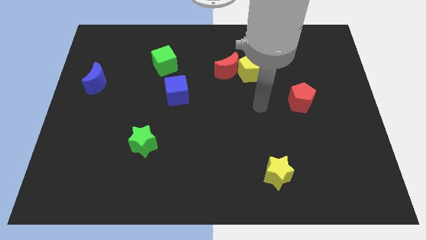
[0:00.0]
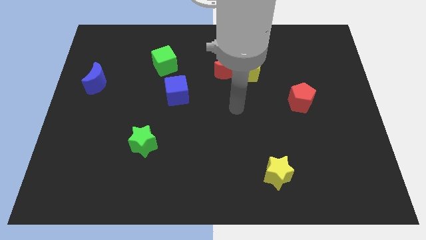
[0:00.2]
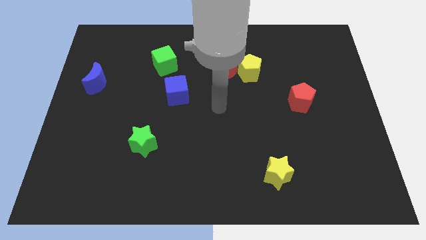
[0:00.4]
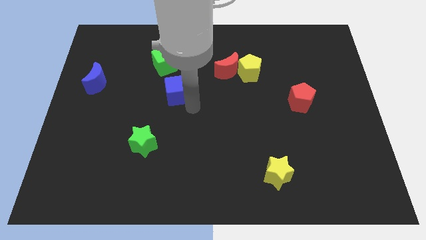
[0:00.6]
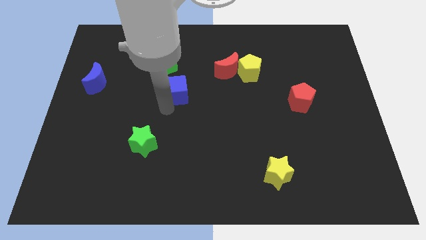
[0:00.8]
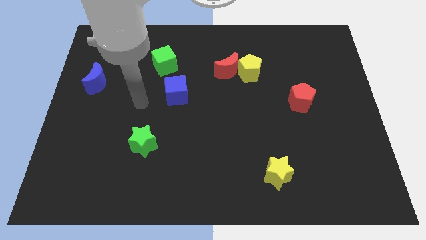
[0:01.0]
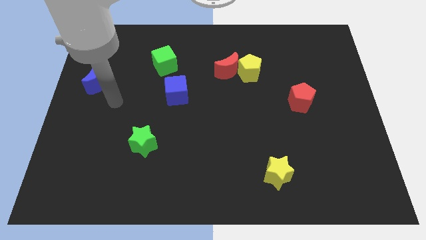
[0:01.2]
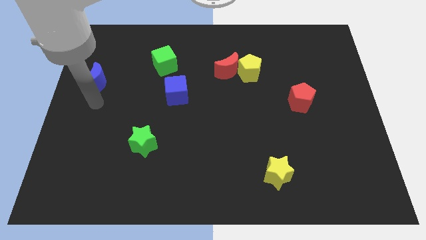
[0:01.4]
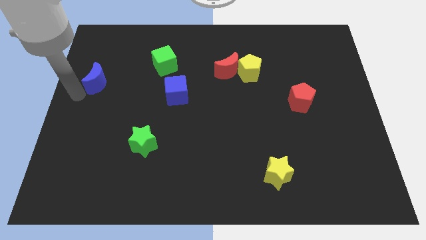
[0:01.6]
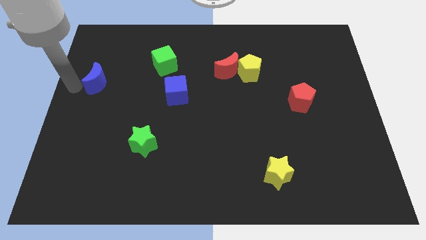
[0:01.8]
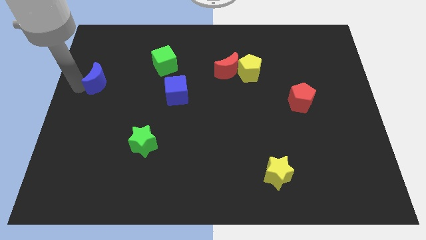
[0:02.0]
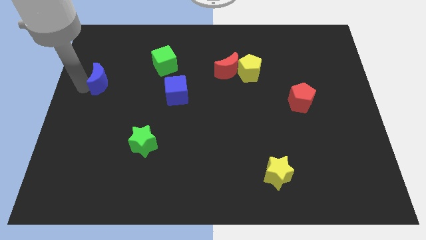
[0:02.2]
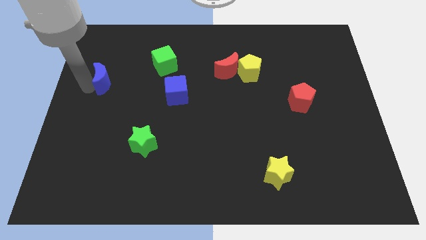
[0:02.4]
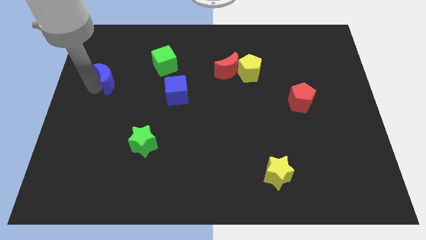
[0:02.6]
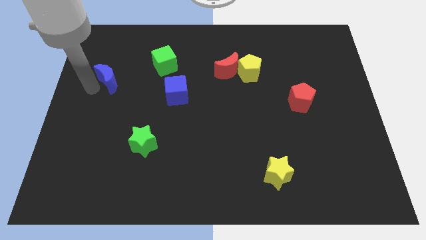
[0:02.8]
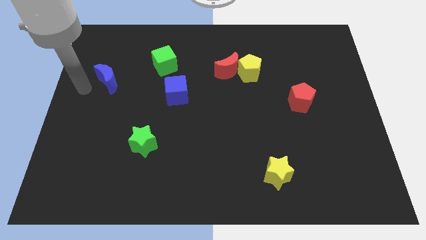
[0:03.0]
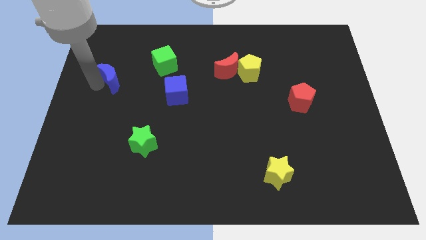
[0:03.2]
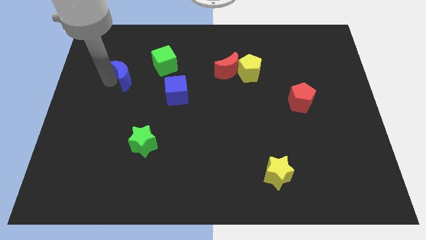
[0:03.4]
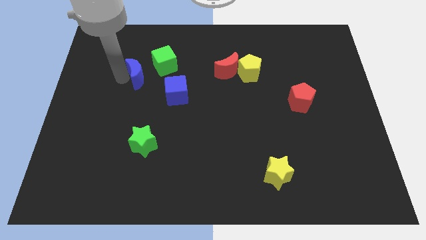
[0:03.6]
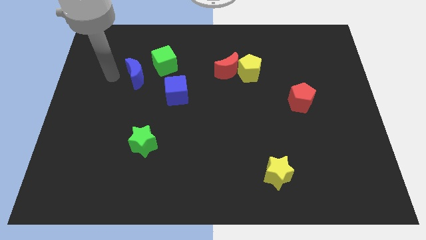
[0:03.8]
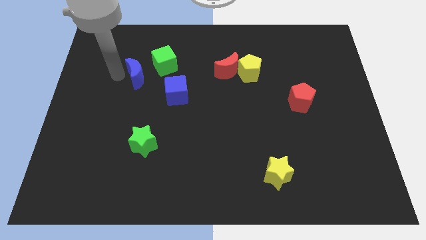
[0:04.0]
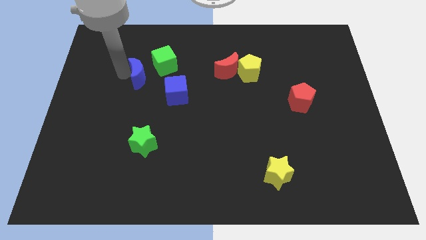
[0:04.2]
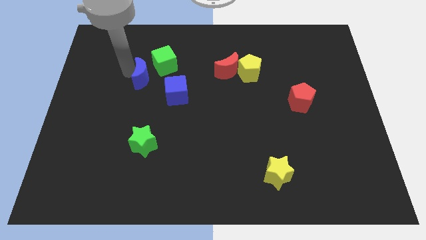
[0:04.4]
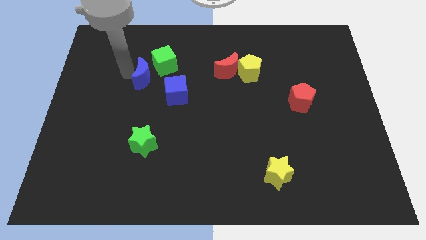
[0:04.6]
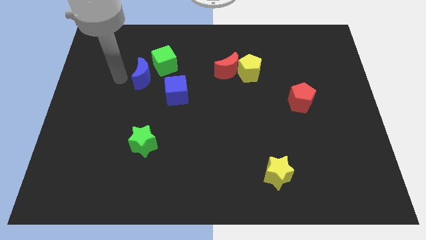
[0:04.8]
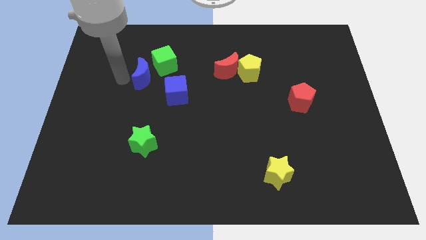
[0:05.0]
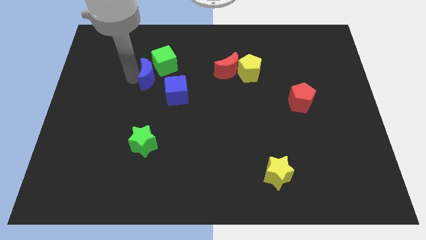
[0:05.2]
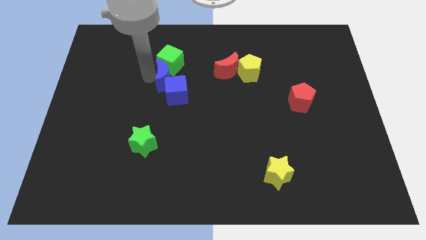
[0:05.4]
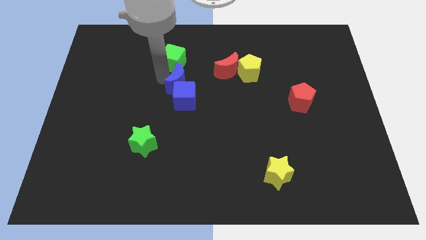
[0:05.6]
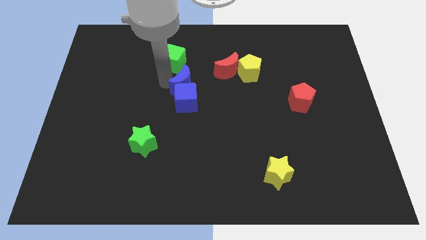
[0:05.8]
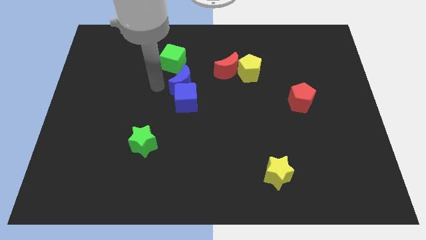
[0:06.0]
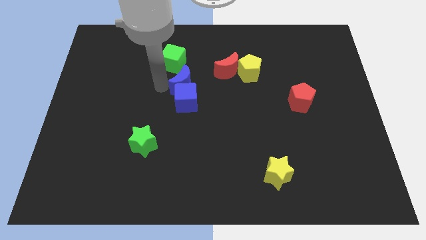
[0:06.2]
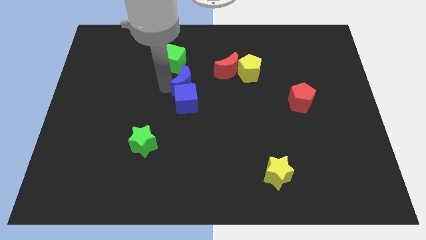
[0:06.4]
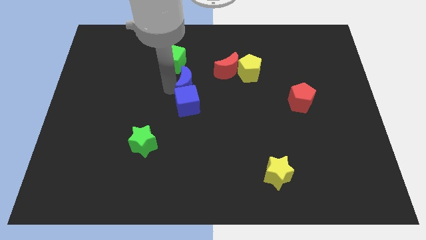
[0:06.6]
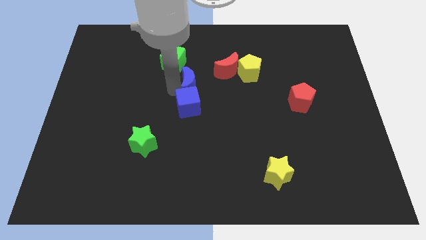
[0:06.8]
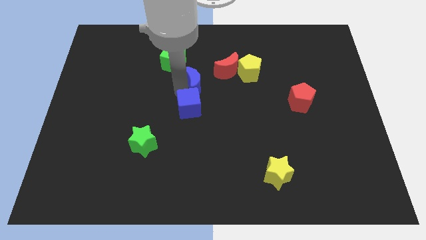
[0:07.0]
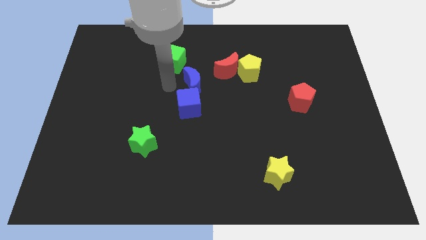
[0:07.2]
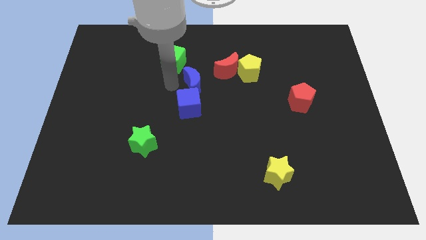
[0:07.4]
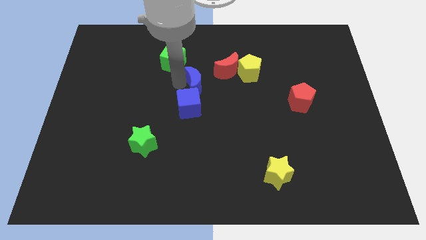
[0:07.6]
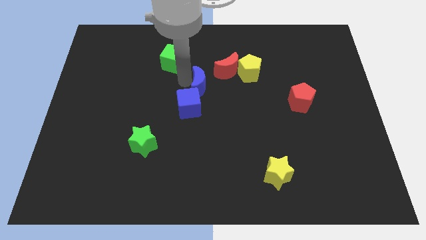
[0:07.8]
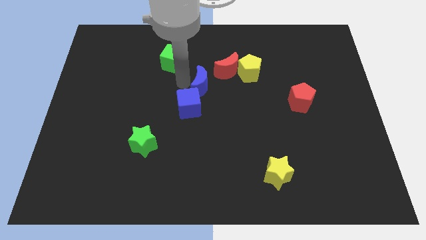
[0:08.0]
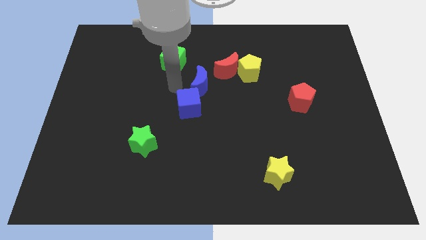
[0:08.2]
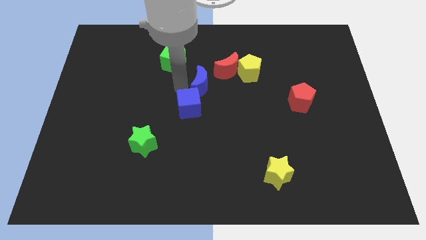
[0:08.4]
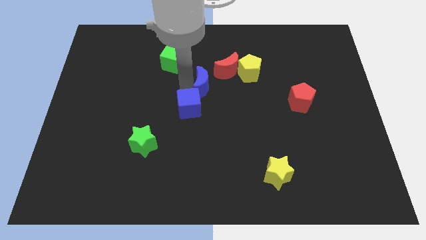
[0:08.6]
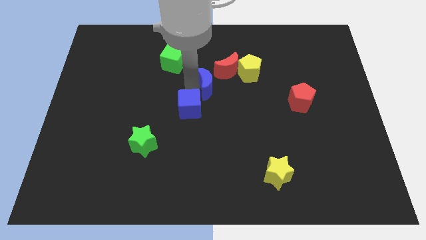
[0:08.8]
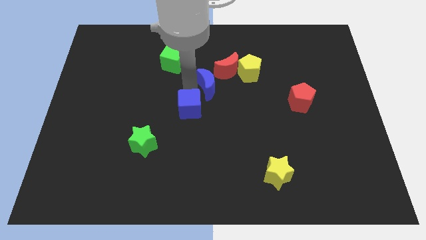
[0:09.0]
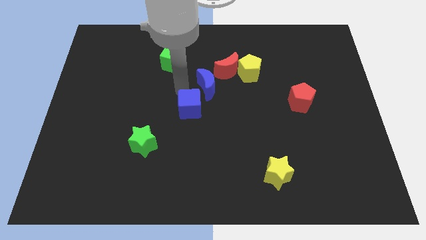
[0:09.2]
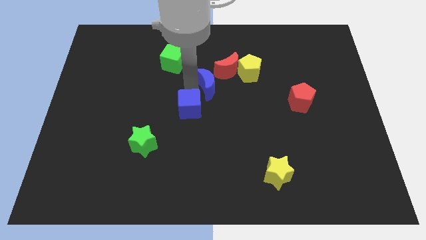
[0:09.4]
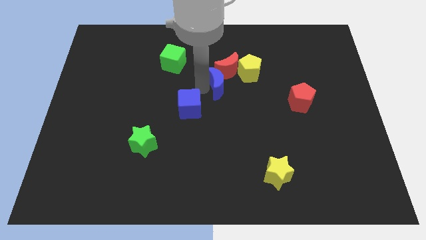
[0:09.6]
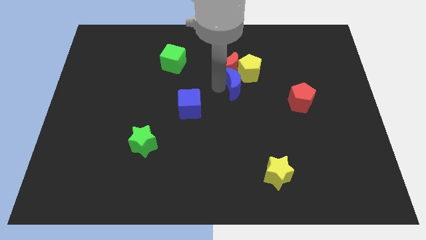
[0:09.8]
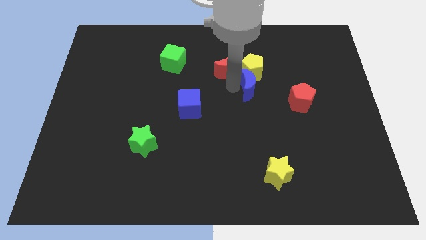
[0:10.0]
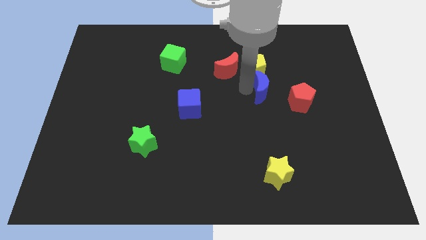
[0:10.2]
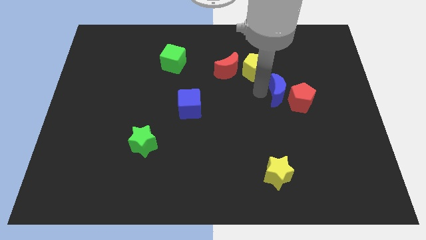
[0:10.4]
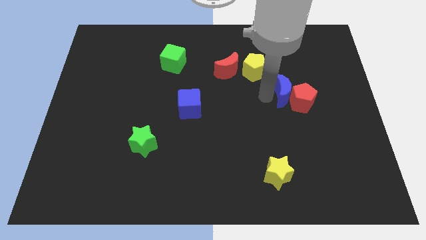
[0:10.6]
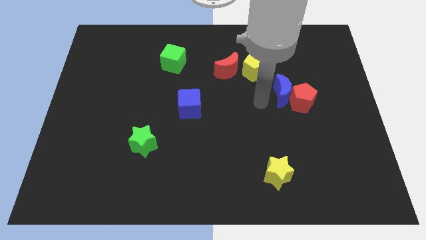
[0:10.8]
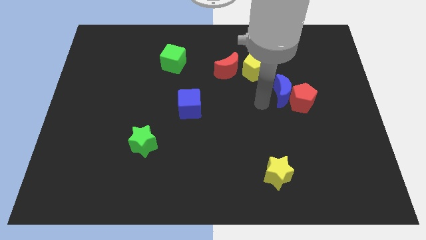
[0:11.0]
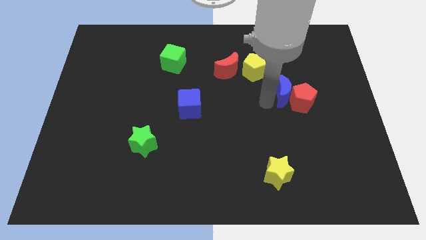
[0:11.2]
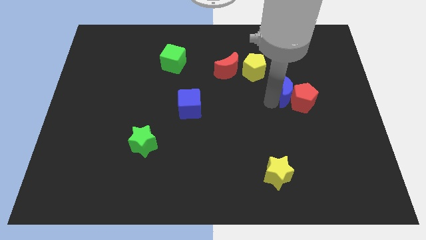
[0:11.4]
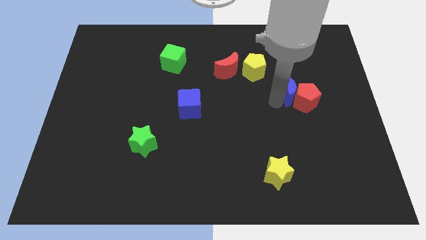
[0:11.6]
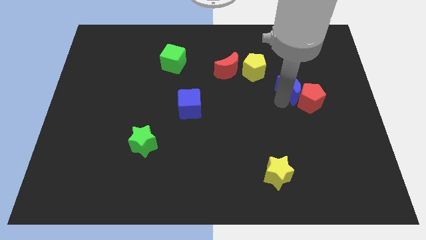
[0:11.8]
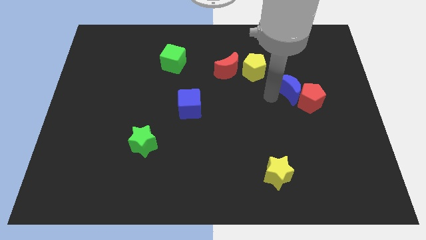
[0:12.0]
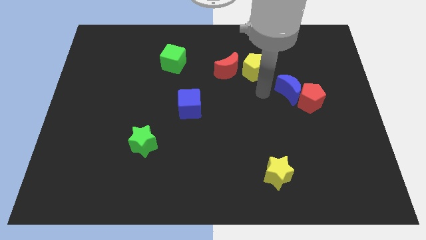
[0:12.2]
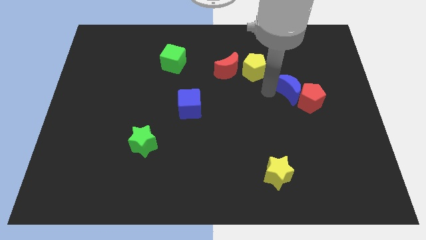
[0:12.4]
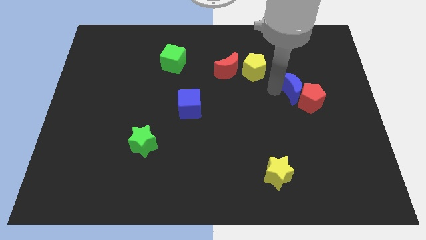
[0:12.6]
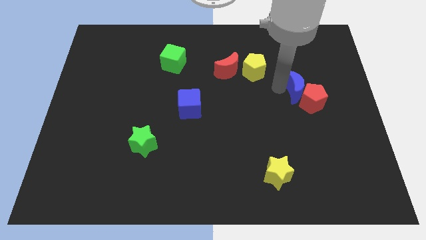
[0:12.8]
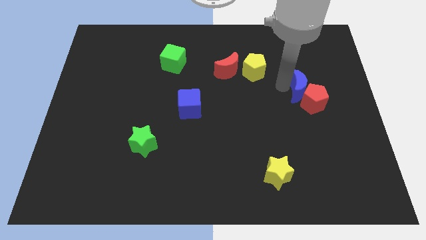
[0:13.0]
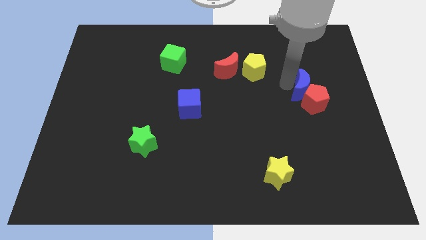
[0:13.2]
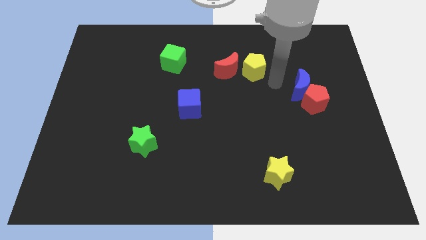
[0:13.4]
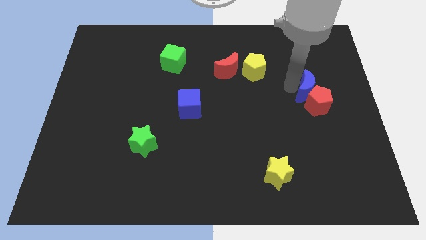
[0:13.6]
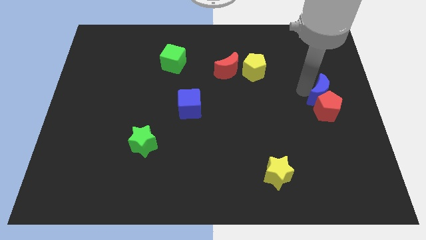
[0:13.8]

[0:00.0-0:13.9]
slide the blue moon to the right side

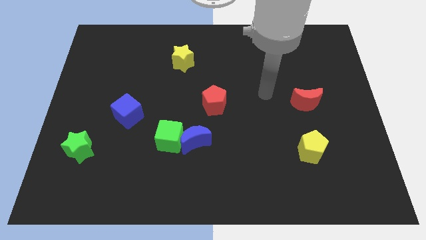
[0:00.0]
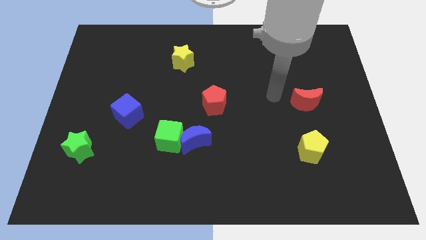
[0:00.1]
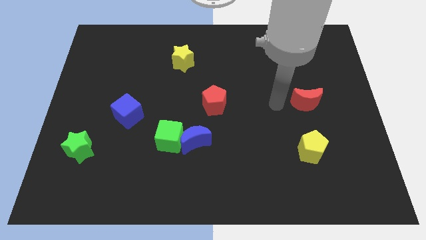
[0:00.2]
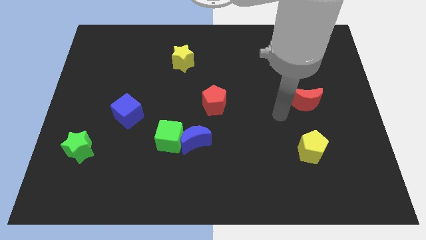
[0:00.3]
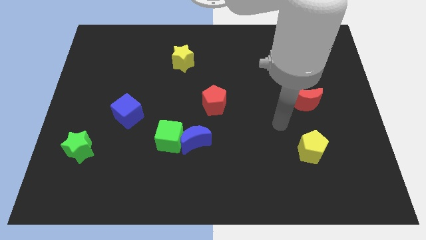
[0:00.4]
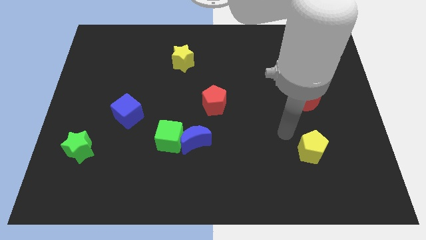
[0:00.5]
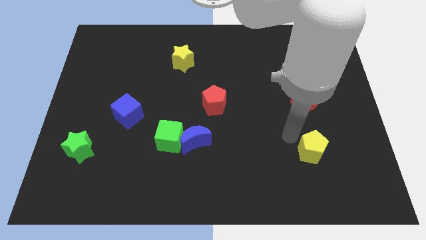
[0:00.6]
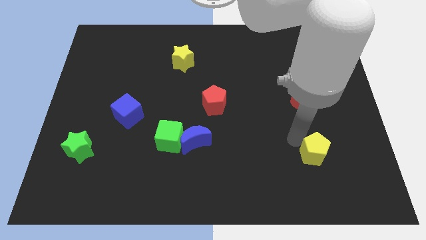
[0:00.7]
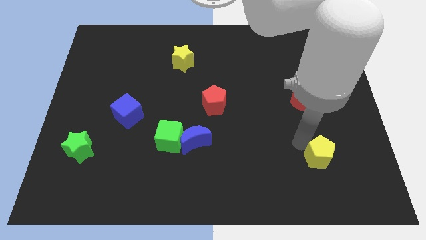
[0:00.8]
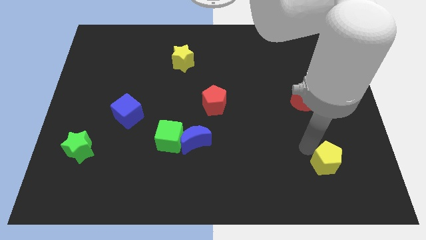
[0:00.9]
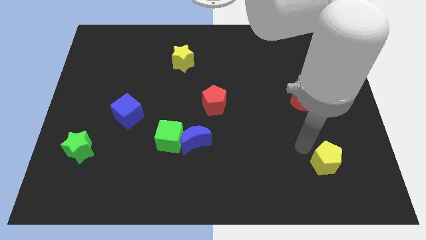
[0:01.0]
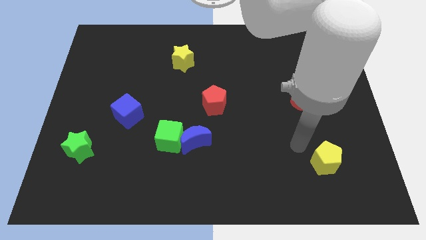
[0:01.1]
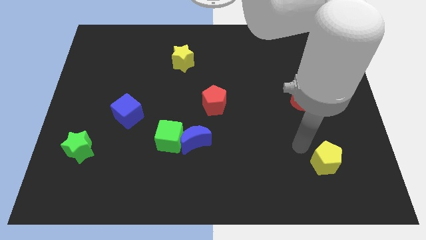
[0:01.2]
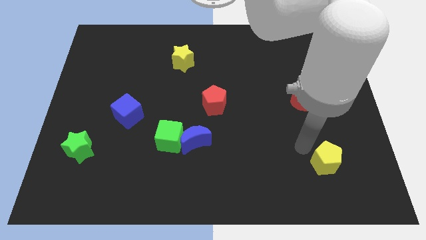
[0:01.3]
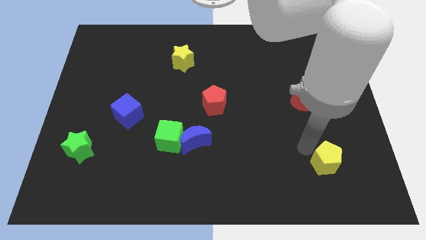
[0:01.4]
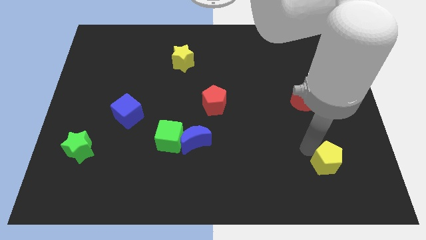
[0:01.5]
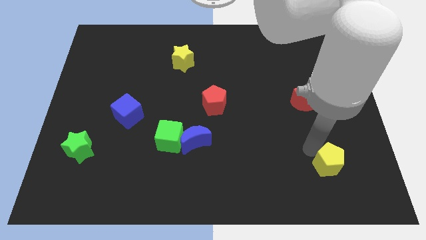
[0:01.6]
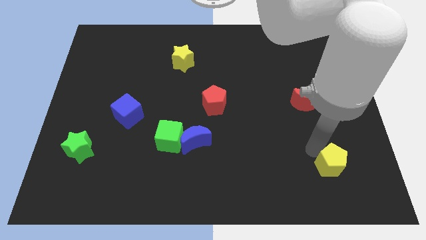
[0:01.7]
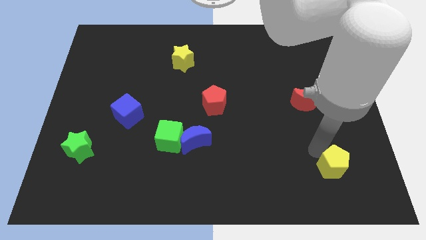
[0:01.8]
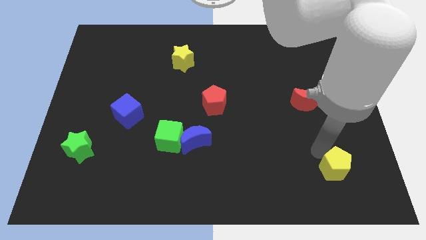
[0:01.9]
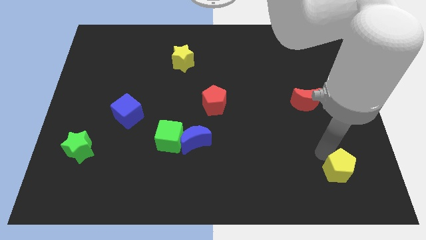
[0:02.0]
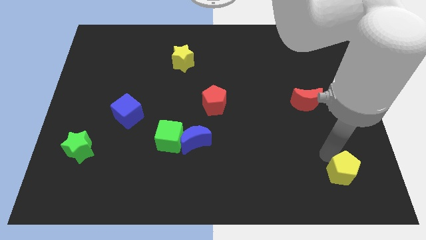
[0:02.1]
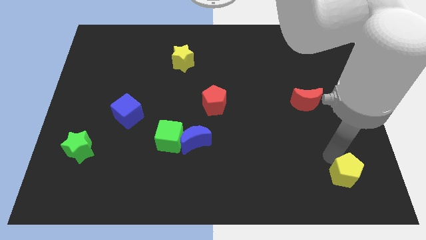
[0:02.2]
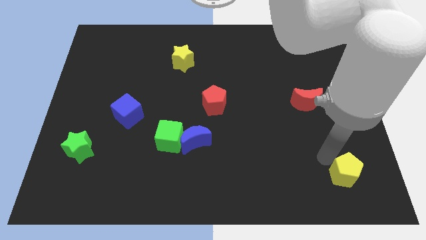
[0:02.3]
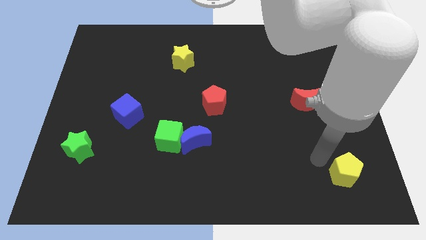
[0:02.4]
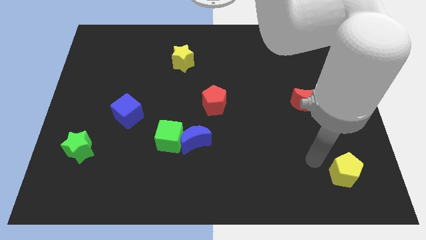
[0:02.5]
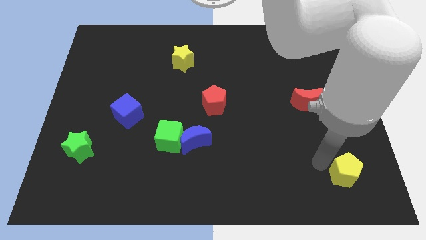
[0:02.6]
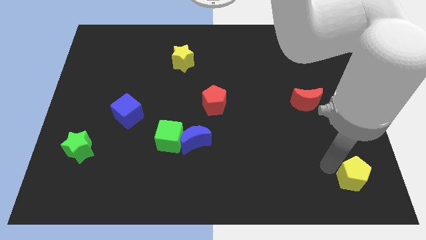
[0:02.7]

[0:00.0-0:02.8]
slide the yellow pentagon to the lower right corner
